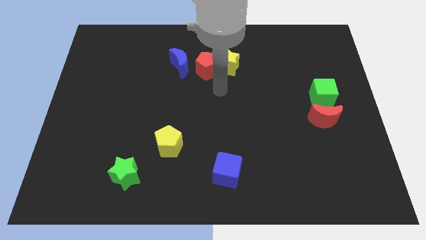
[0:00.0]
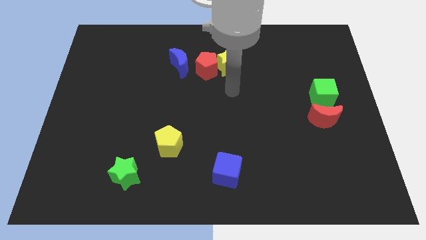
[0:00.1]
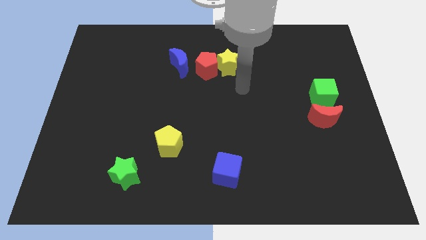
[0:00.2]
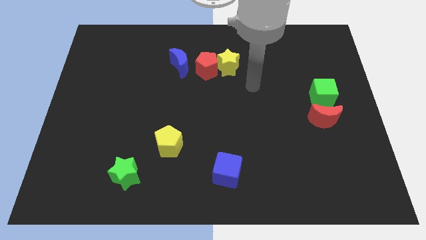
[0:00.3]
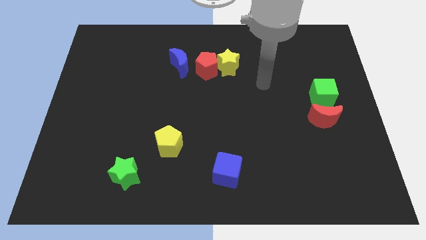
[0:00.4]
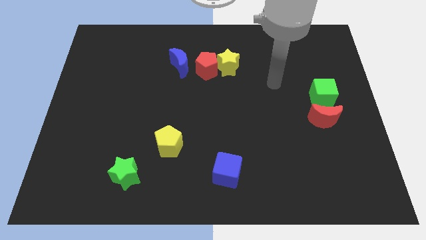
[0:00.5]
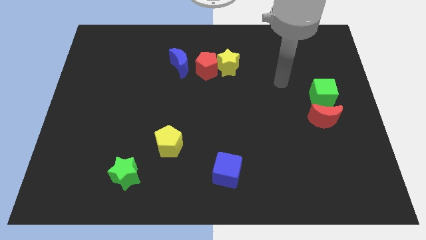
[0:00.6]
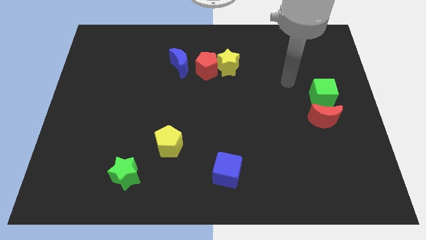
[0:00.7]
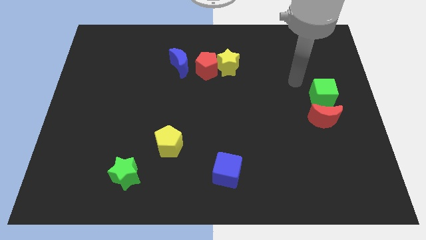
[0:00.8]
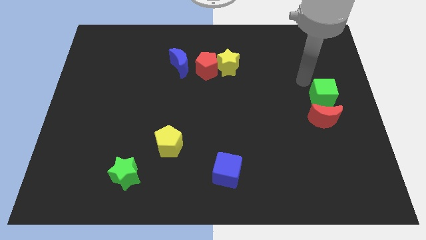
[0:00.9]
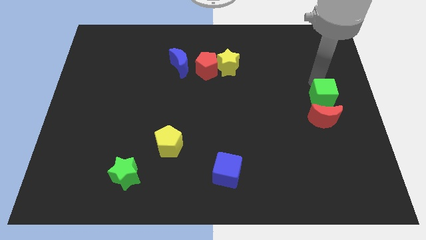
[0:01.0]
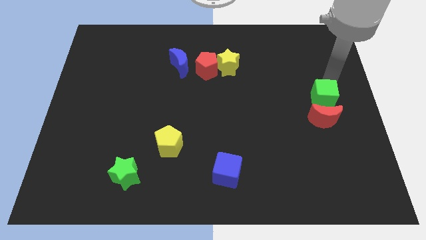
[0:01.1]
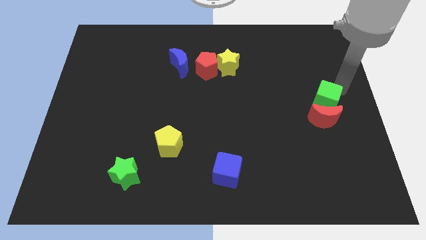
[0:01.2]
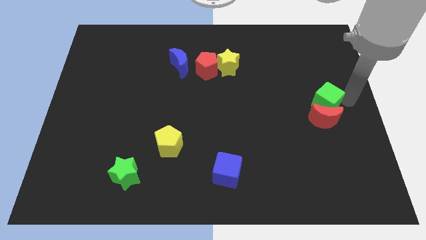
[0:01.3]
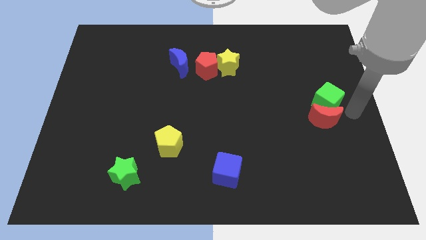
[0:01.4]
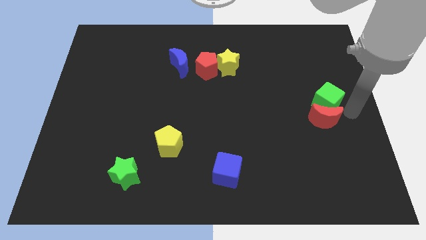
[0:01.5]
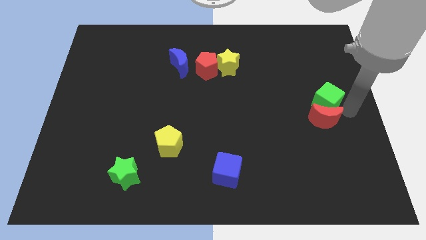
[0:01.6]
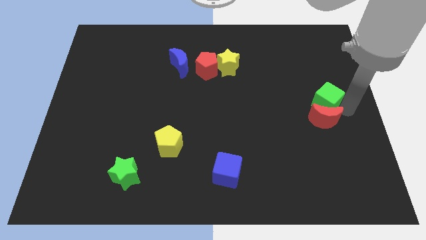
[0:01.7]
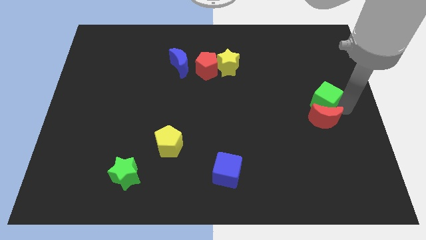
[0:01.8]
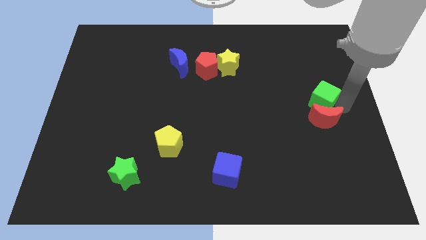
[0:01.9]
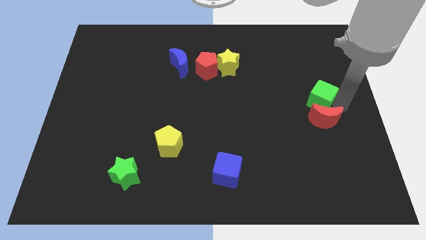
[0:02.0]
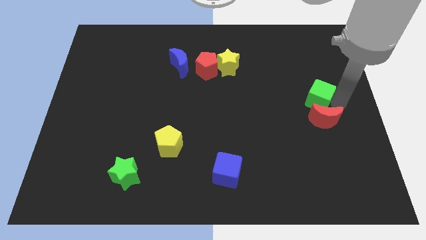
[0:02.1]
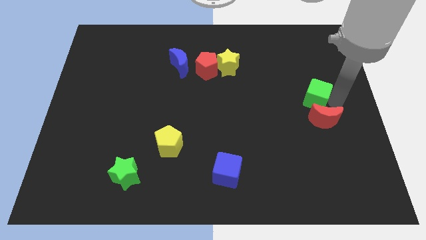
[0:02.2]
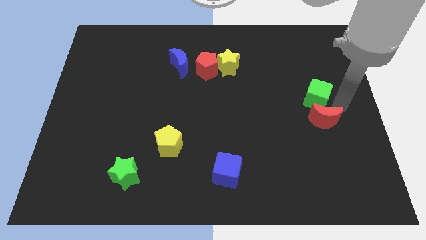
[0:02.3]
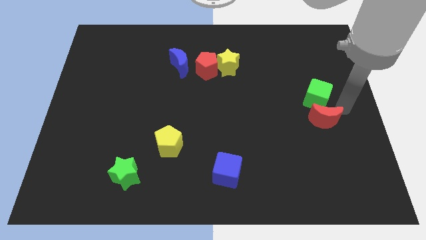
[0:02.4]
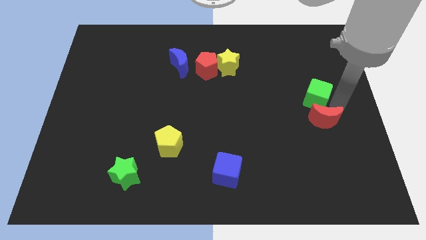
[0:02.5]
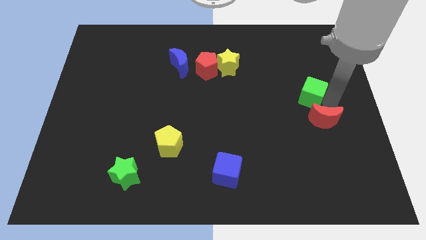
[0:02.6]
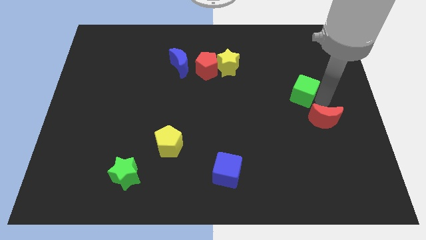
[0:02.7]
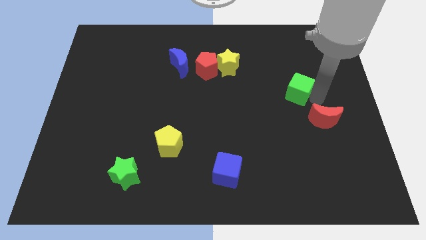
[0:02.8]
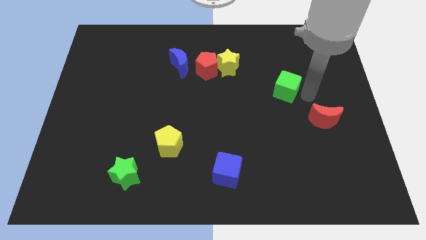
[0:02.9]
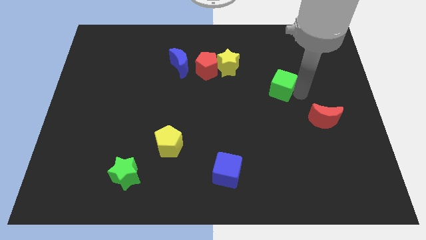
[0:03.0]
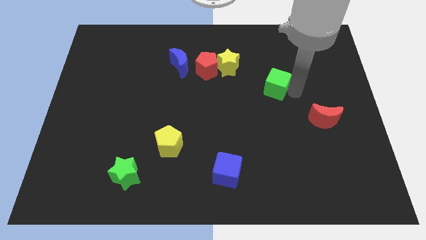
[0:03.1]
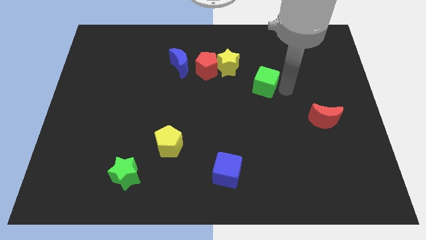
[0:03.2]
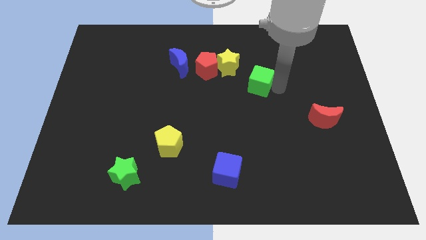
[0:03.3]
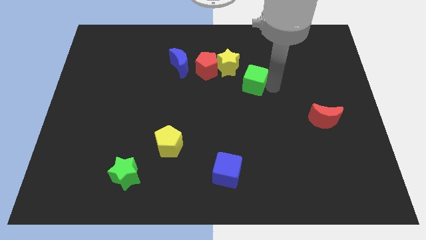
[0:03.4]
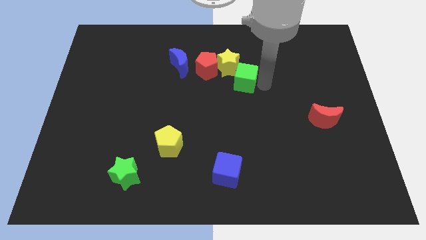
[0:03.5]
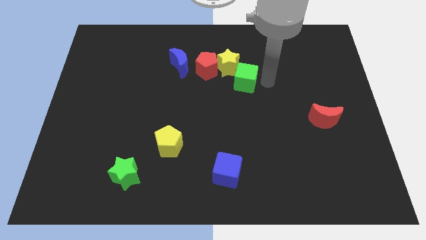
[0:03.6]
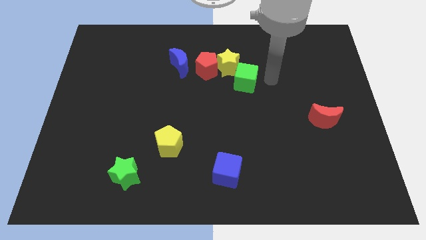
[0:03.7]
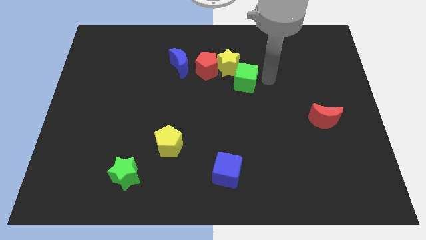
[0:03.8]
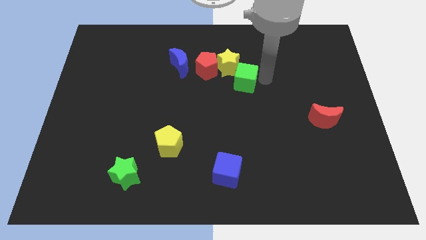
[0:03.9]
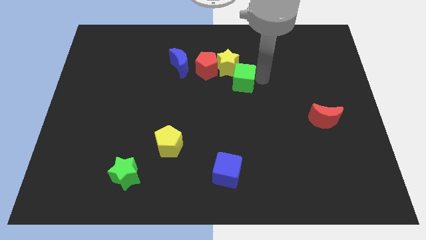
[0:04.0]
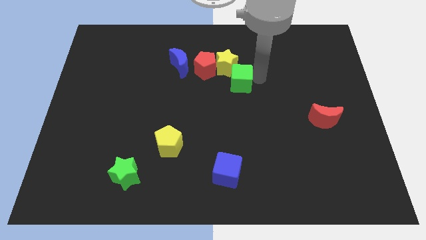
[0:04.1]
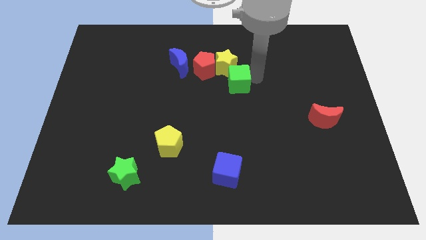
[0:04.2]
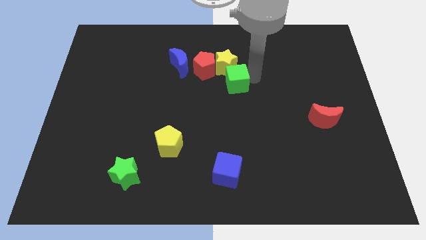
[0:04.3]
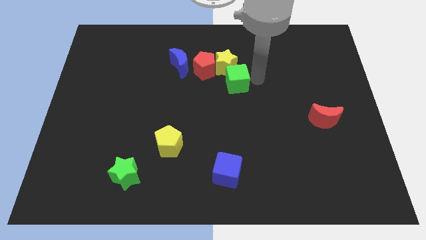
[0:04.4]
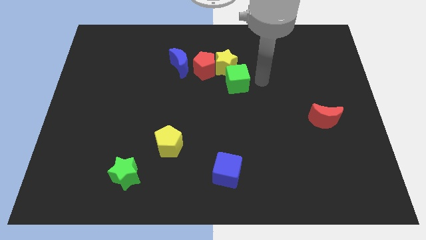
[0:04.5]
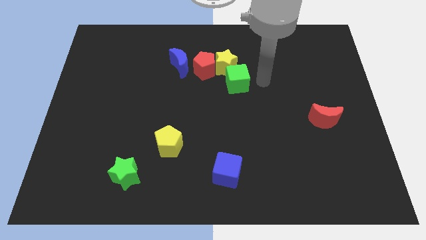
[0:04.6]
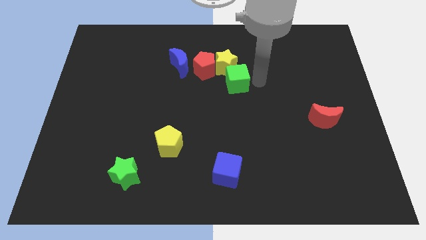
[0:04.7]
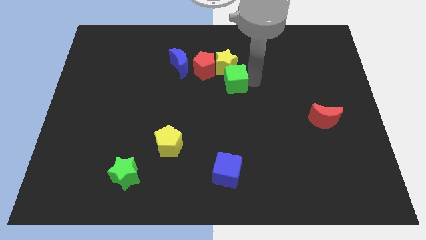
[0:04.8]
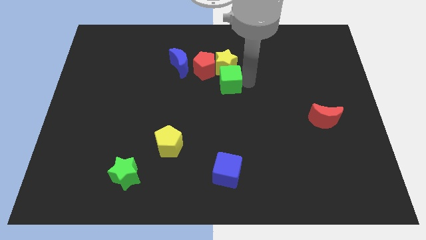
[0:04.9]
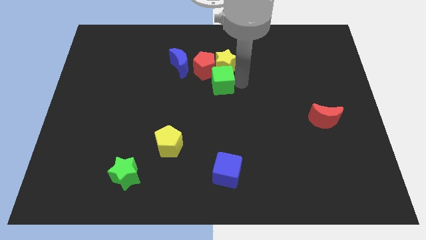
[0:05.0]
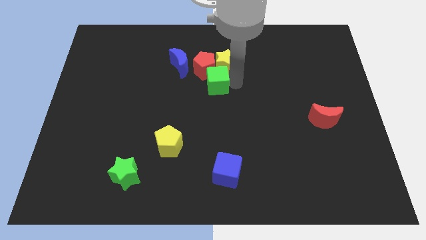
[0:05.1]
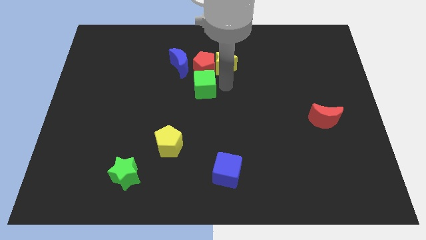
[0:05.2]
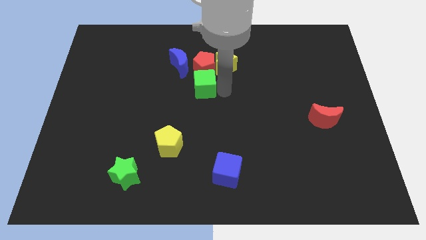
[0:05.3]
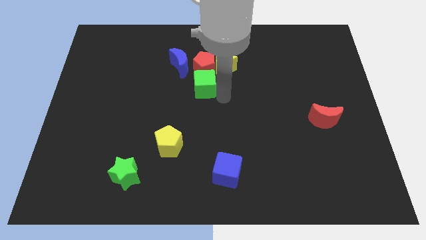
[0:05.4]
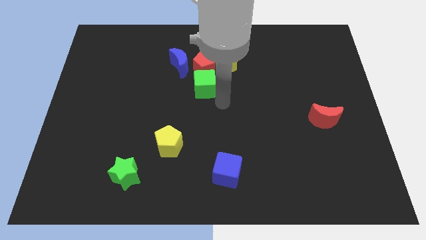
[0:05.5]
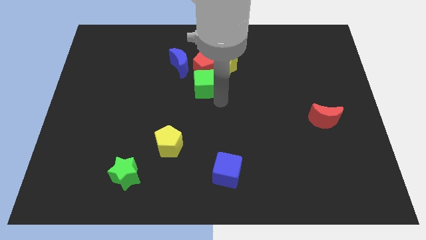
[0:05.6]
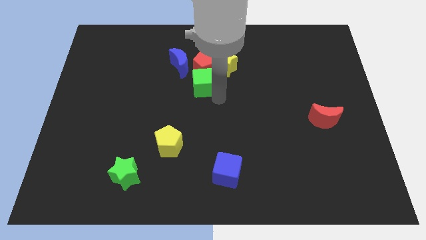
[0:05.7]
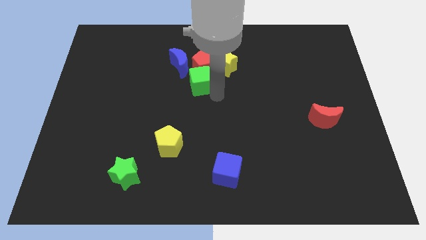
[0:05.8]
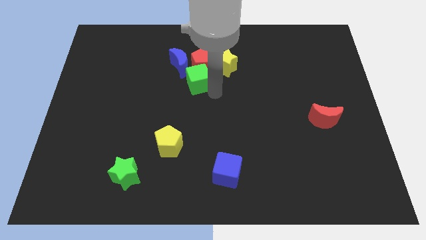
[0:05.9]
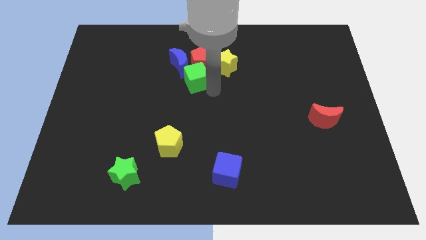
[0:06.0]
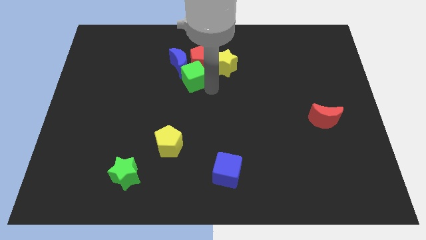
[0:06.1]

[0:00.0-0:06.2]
put the green cube next to the blue moon

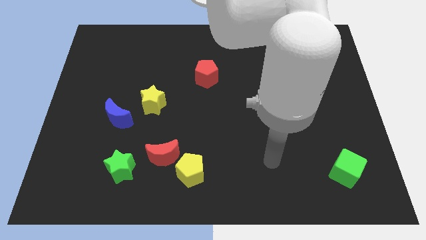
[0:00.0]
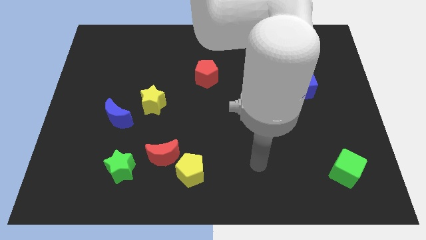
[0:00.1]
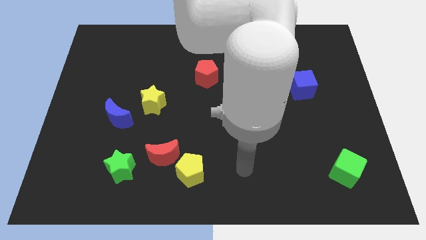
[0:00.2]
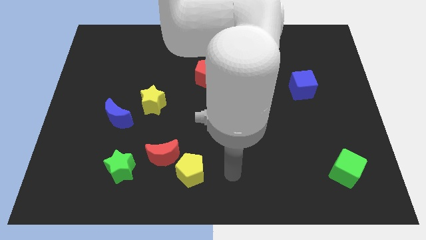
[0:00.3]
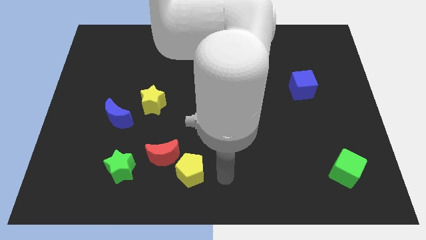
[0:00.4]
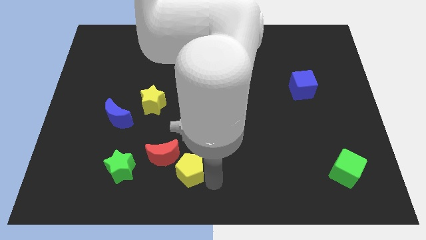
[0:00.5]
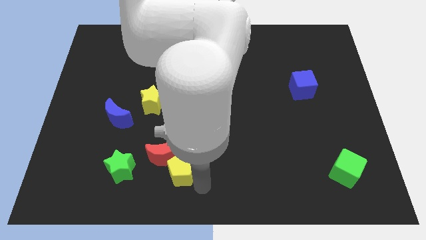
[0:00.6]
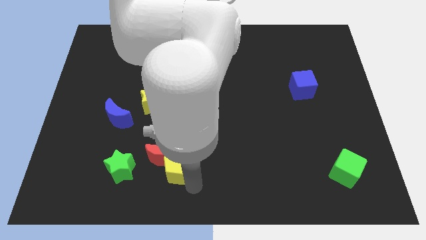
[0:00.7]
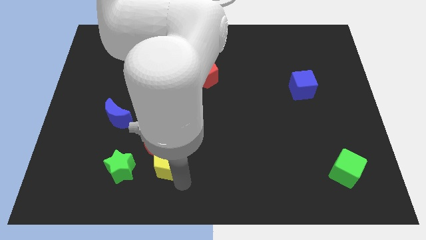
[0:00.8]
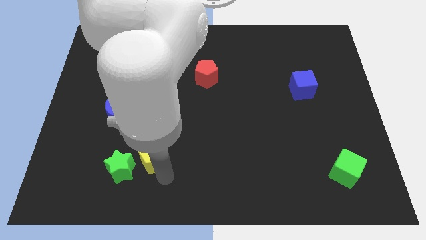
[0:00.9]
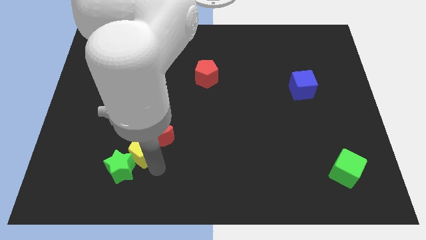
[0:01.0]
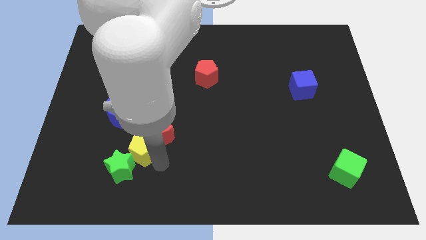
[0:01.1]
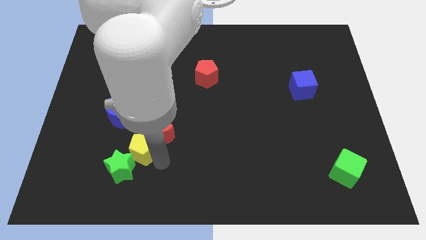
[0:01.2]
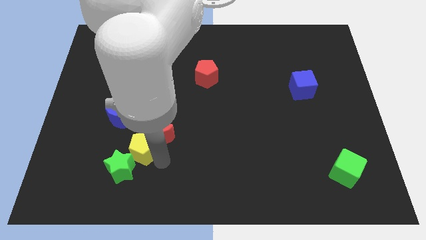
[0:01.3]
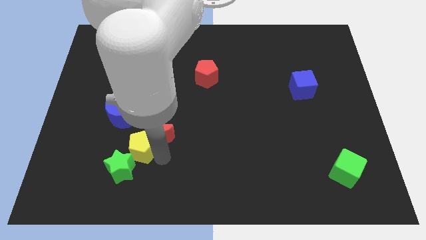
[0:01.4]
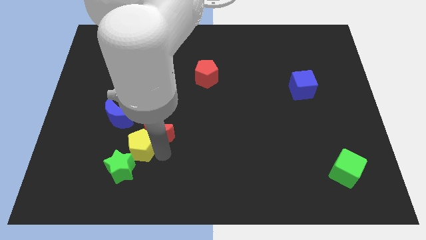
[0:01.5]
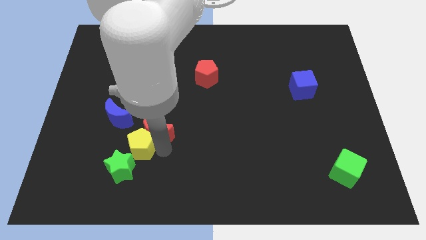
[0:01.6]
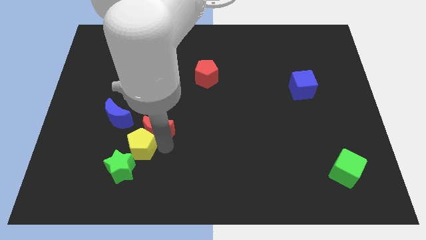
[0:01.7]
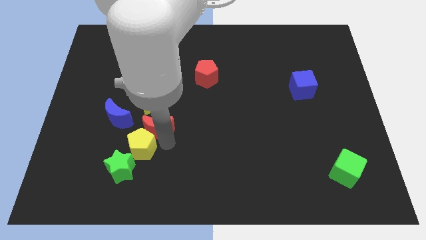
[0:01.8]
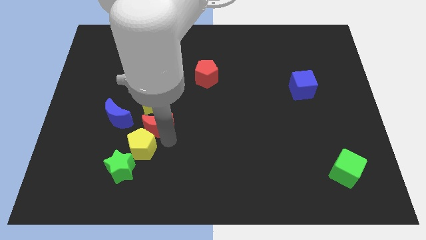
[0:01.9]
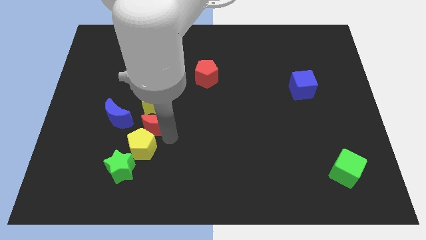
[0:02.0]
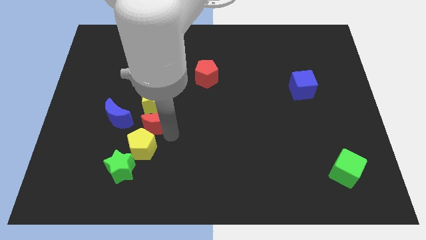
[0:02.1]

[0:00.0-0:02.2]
move the red moon to the yellow star
